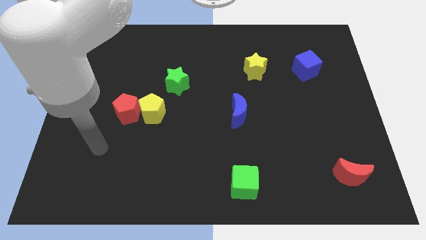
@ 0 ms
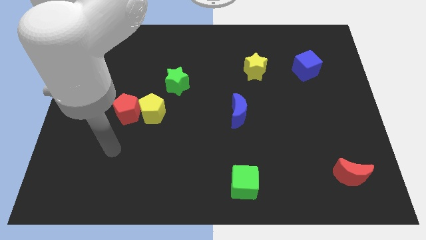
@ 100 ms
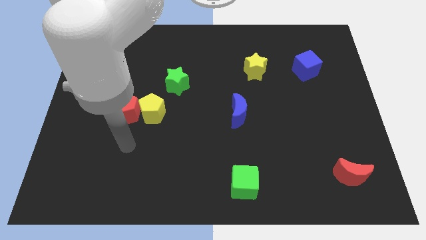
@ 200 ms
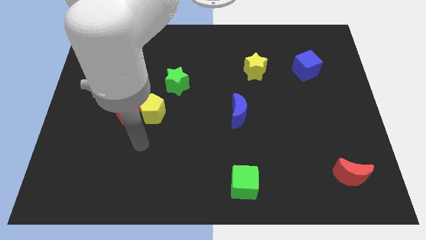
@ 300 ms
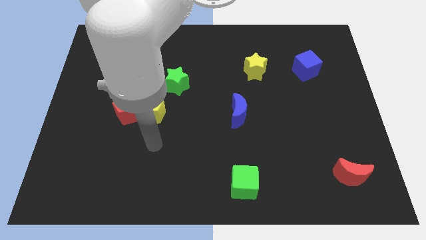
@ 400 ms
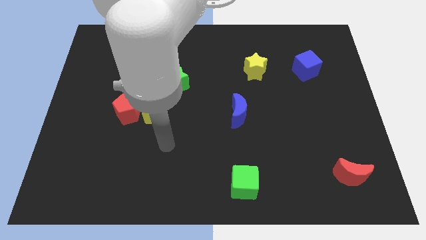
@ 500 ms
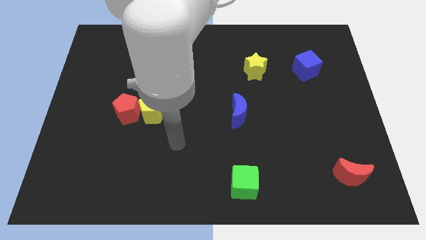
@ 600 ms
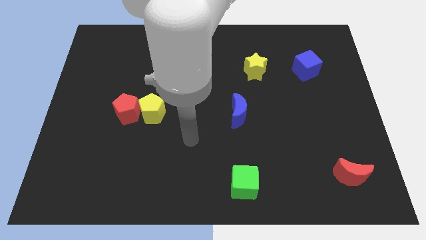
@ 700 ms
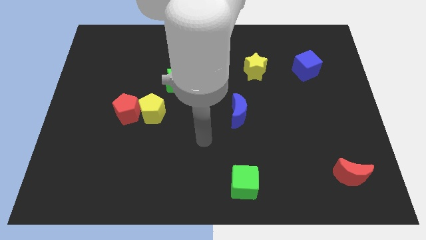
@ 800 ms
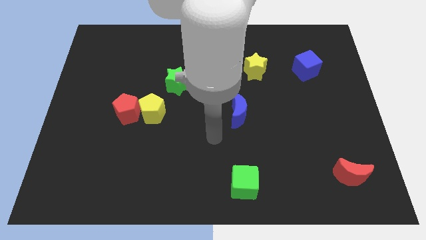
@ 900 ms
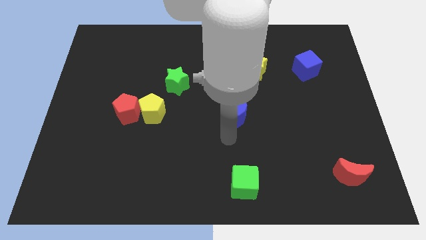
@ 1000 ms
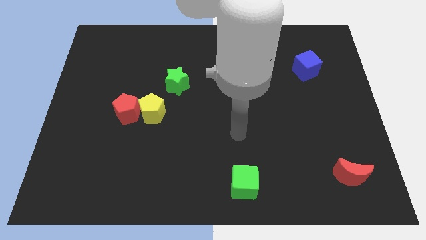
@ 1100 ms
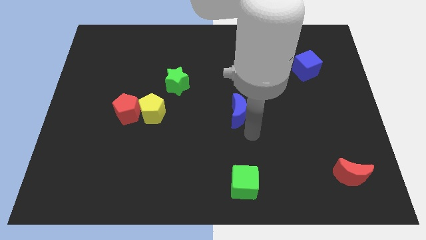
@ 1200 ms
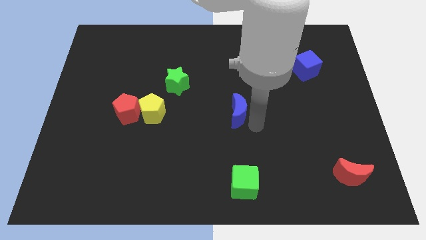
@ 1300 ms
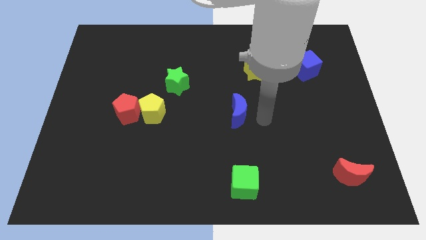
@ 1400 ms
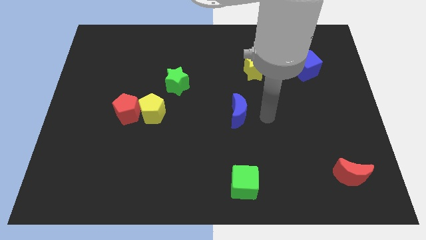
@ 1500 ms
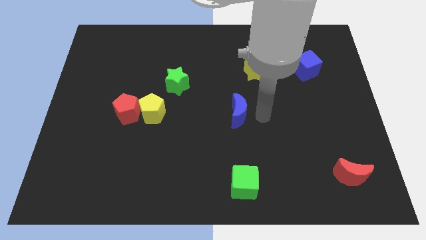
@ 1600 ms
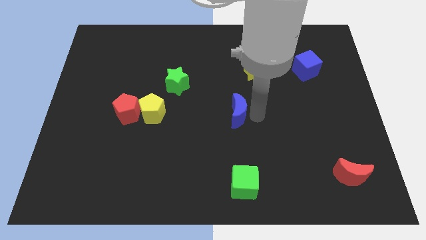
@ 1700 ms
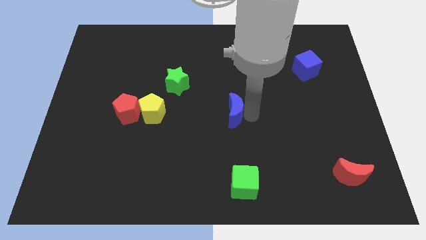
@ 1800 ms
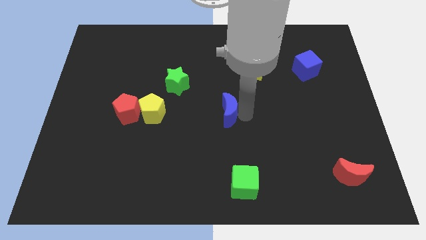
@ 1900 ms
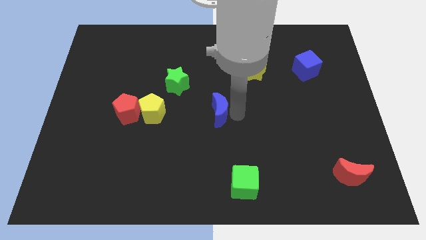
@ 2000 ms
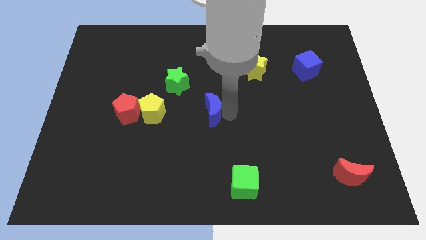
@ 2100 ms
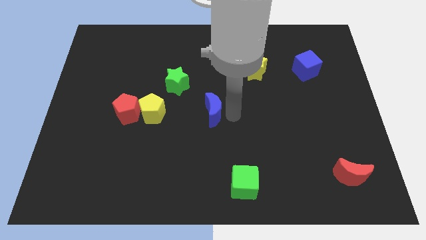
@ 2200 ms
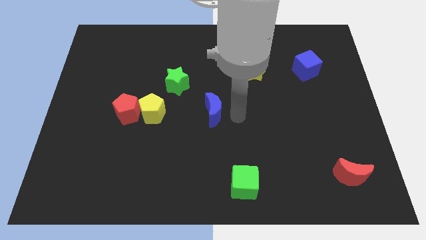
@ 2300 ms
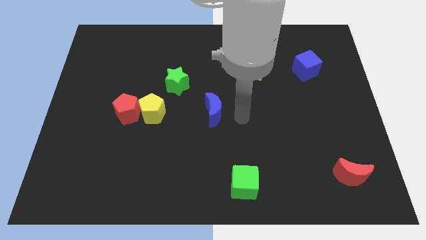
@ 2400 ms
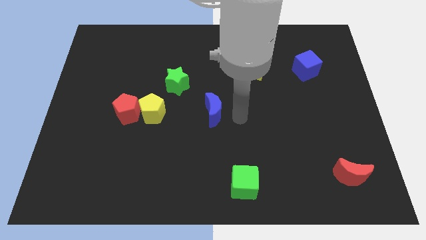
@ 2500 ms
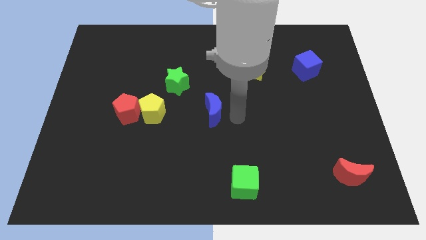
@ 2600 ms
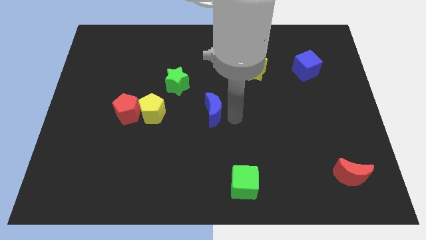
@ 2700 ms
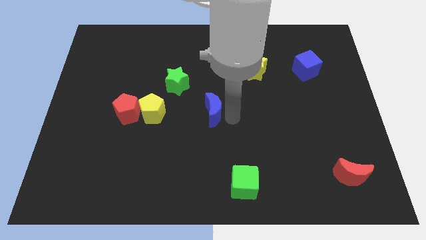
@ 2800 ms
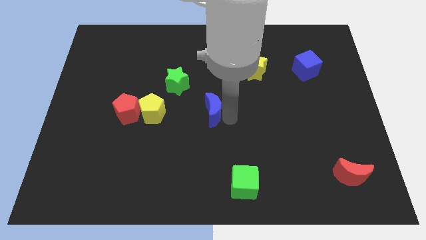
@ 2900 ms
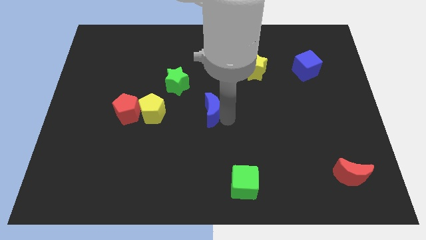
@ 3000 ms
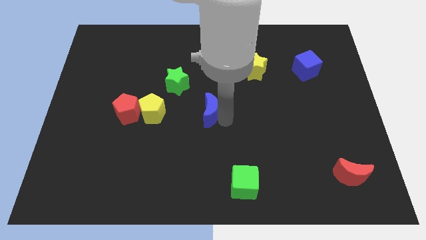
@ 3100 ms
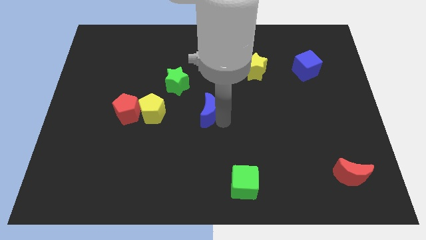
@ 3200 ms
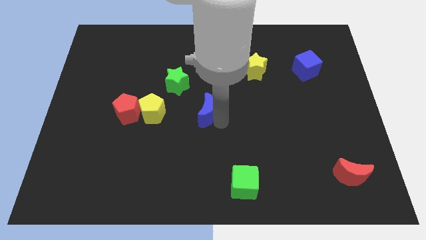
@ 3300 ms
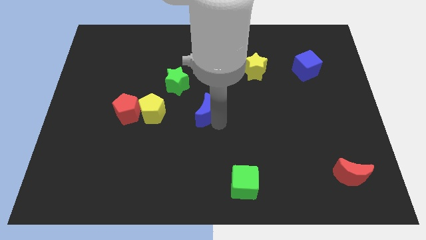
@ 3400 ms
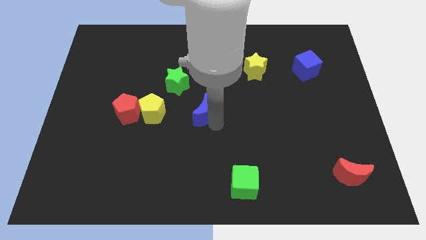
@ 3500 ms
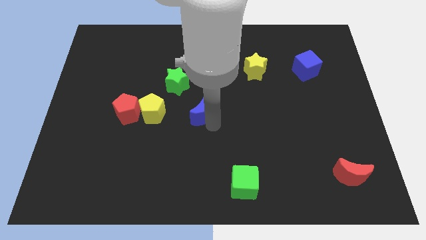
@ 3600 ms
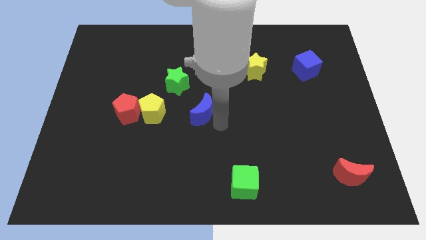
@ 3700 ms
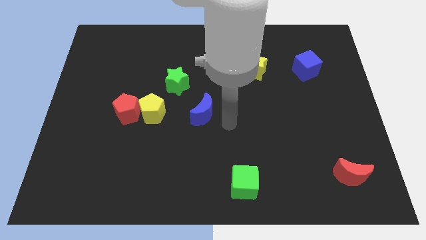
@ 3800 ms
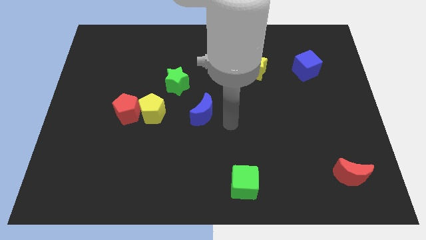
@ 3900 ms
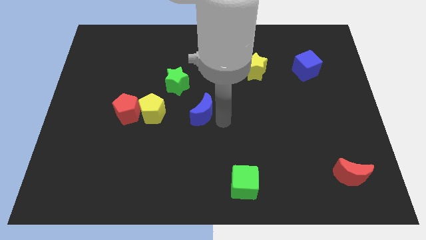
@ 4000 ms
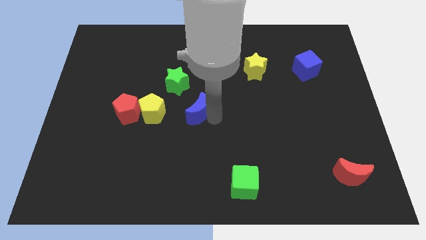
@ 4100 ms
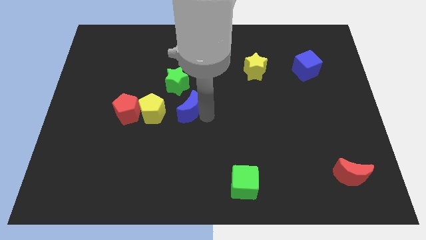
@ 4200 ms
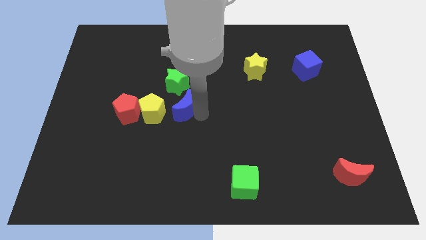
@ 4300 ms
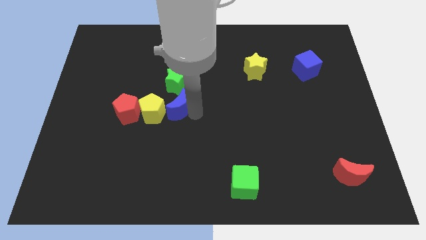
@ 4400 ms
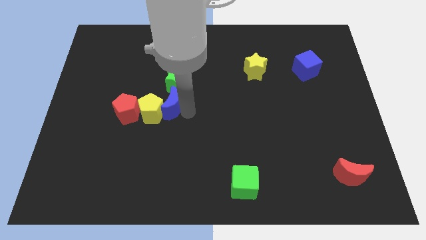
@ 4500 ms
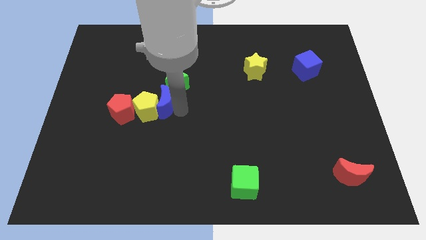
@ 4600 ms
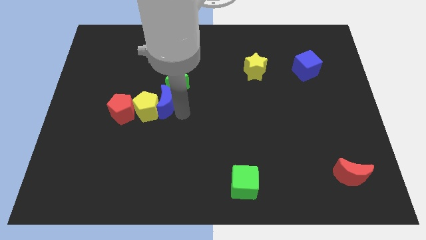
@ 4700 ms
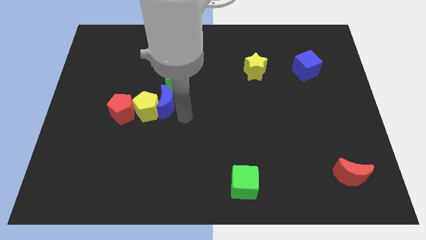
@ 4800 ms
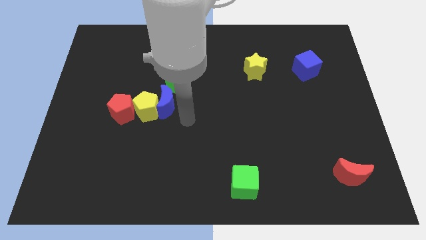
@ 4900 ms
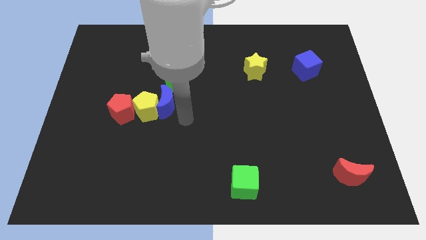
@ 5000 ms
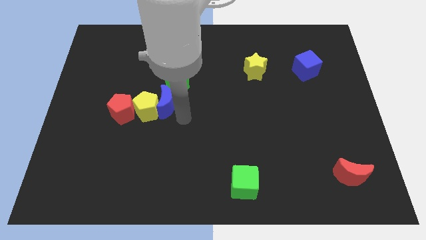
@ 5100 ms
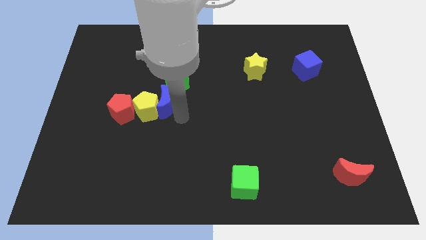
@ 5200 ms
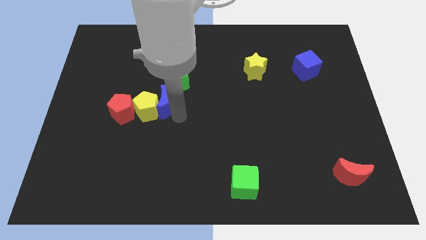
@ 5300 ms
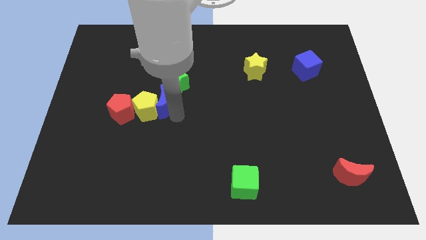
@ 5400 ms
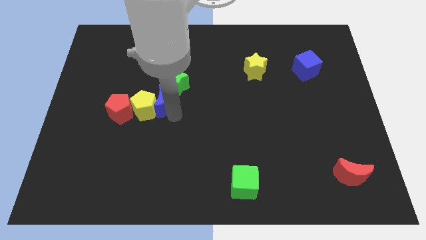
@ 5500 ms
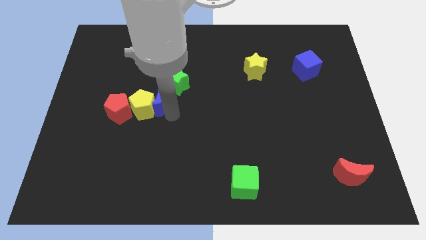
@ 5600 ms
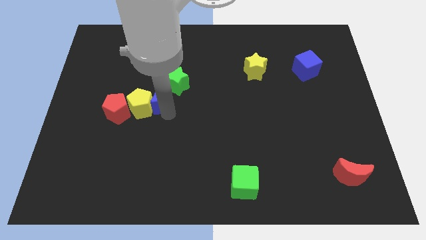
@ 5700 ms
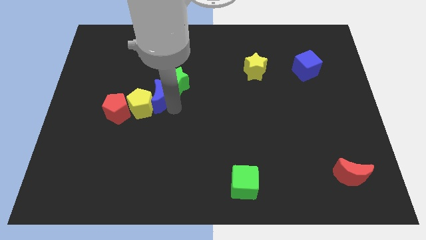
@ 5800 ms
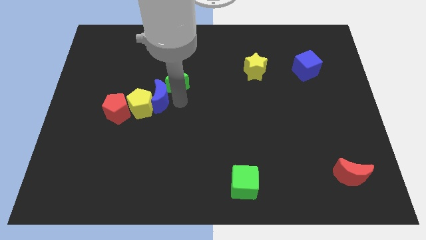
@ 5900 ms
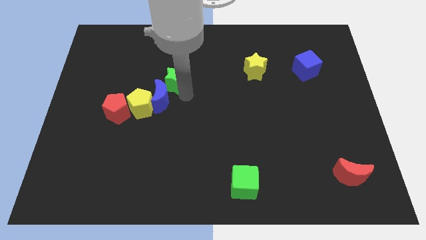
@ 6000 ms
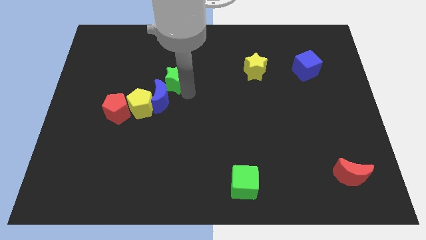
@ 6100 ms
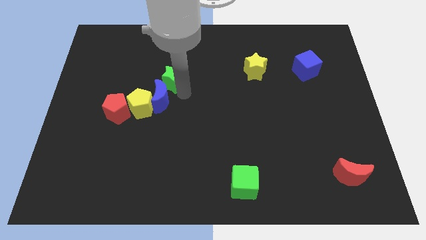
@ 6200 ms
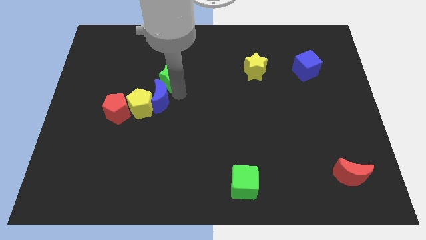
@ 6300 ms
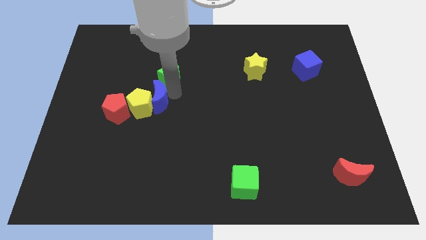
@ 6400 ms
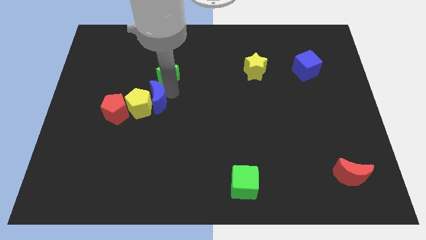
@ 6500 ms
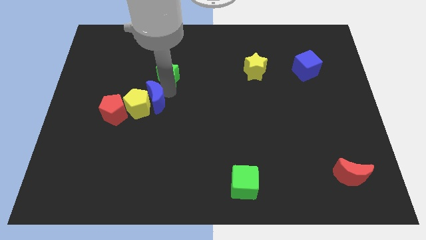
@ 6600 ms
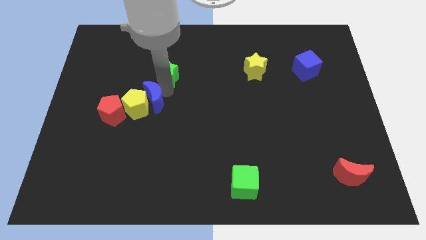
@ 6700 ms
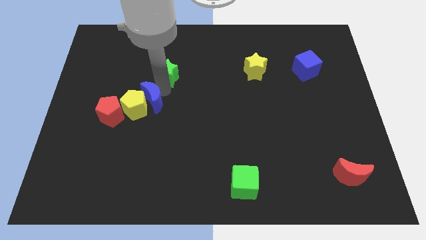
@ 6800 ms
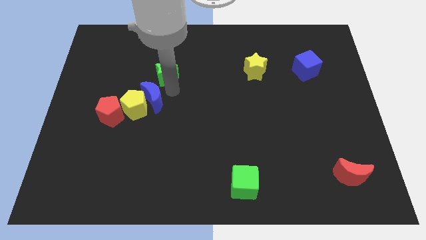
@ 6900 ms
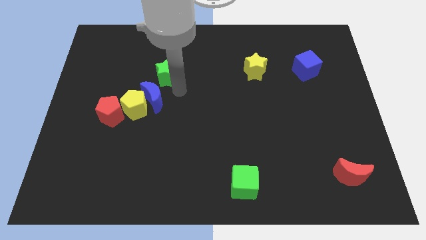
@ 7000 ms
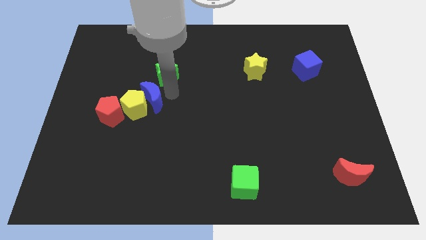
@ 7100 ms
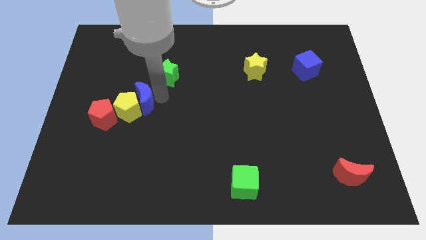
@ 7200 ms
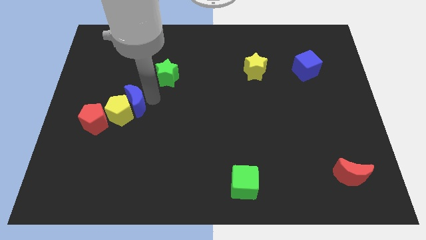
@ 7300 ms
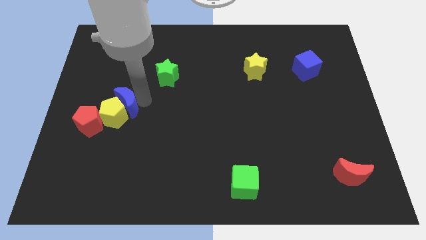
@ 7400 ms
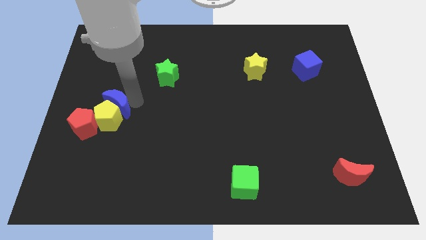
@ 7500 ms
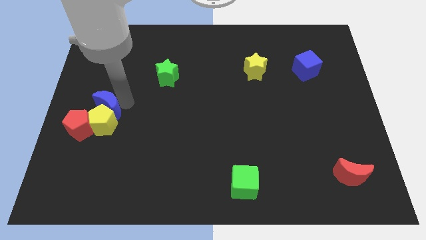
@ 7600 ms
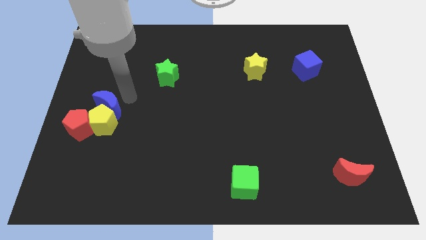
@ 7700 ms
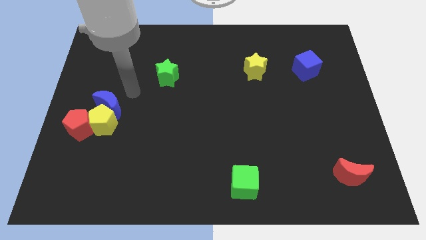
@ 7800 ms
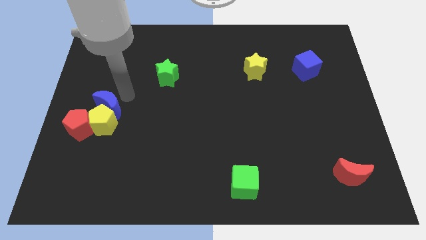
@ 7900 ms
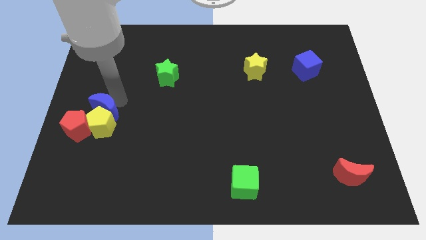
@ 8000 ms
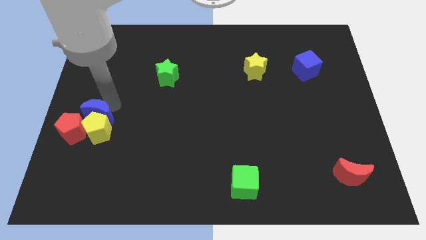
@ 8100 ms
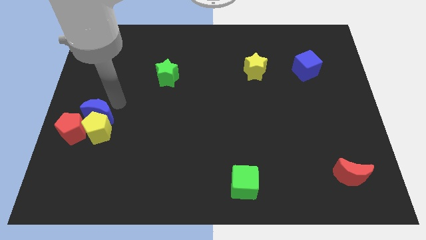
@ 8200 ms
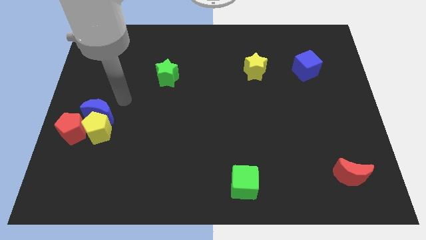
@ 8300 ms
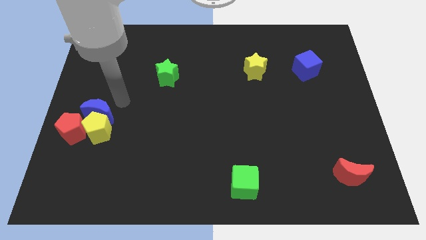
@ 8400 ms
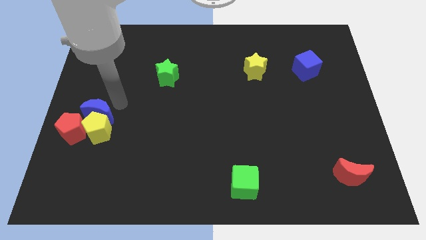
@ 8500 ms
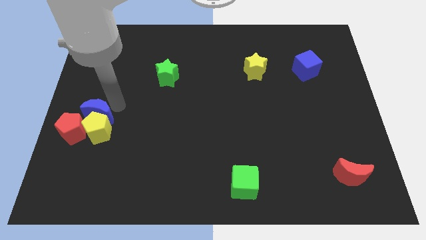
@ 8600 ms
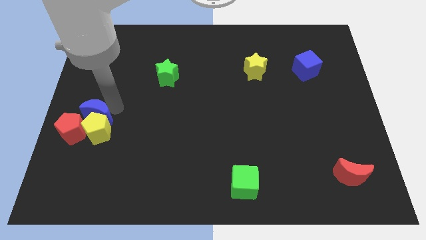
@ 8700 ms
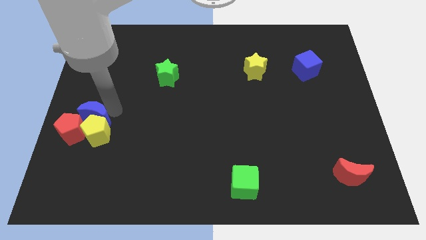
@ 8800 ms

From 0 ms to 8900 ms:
slide the blue moon next to the red pentagon
